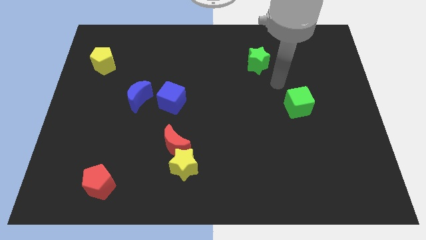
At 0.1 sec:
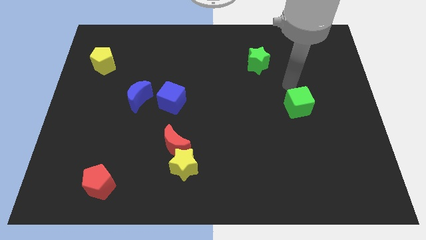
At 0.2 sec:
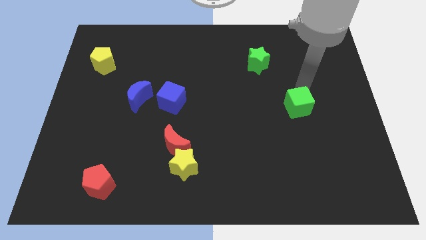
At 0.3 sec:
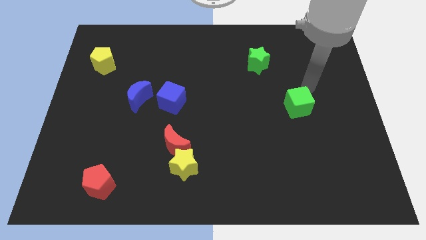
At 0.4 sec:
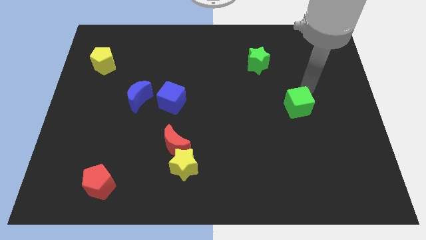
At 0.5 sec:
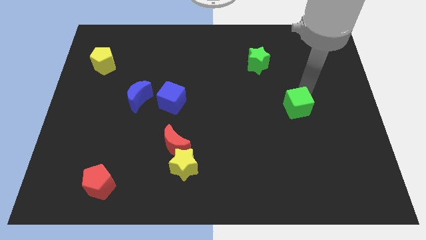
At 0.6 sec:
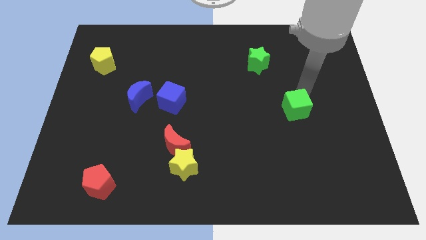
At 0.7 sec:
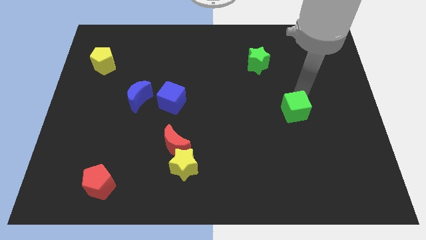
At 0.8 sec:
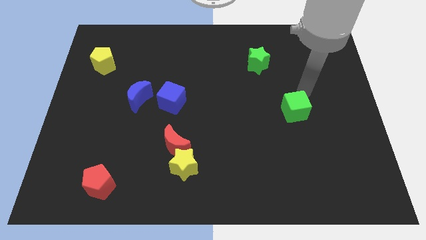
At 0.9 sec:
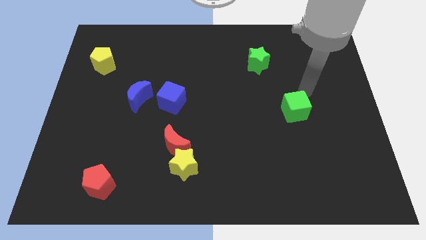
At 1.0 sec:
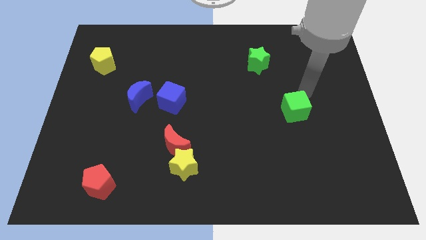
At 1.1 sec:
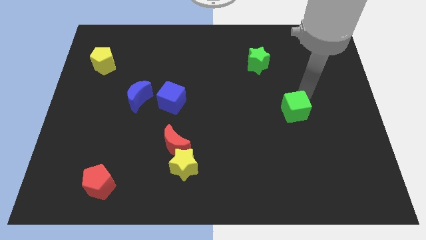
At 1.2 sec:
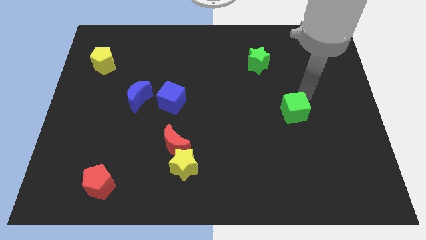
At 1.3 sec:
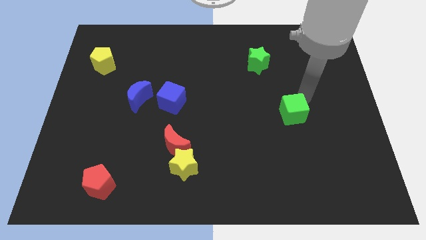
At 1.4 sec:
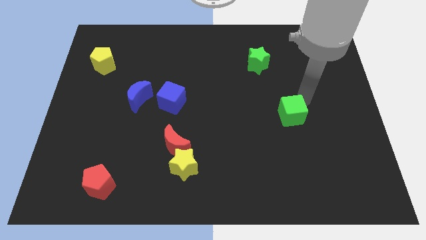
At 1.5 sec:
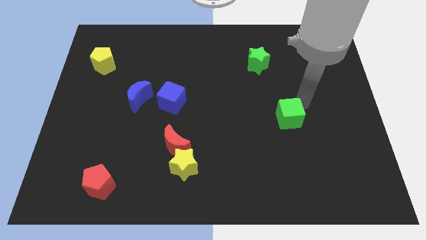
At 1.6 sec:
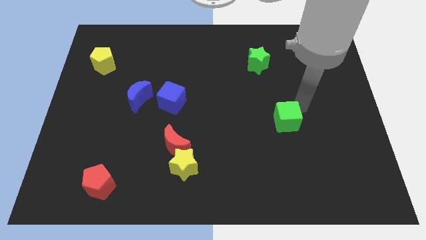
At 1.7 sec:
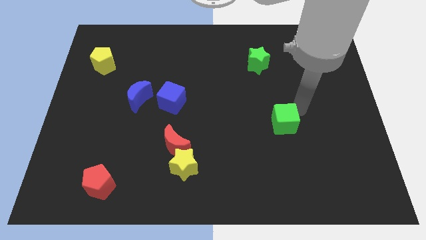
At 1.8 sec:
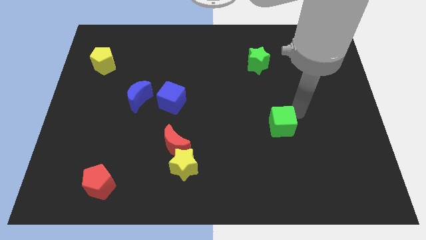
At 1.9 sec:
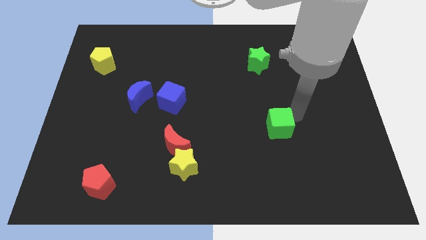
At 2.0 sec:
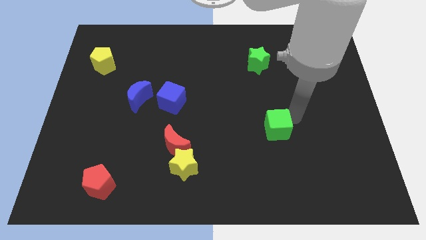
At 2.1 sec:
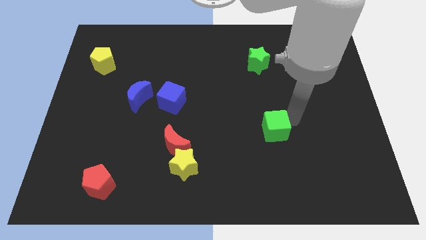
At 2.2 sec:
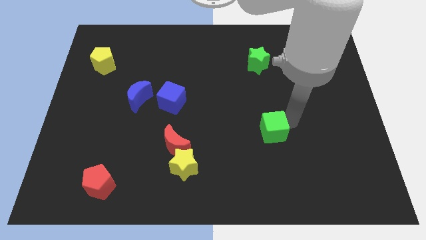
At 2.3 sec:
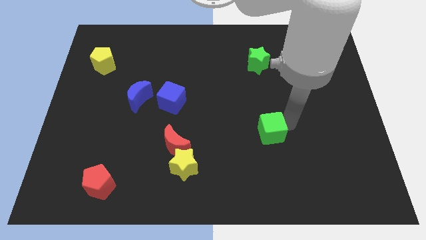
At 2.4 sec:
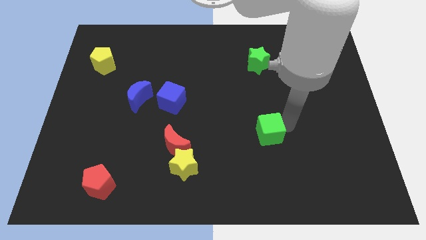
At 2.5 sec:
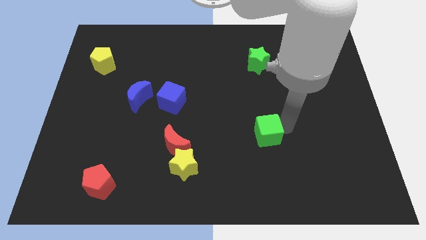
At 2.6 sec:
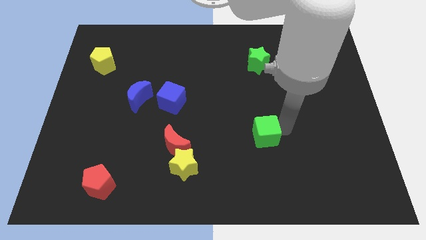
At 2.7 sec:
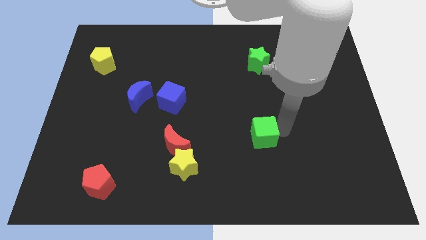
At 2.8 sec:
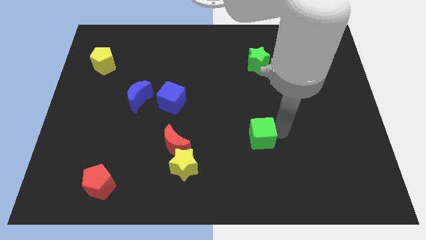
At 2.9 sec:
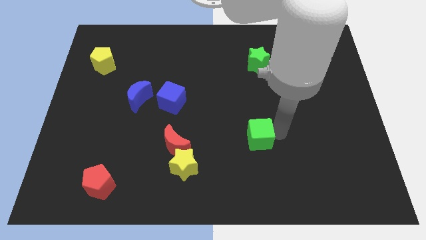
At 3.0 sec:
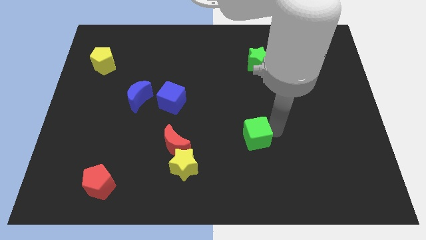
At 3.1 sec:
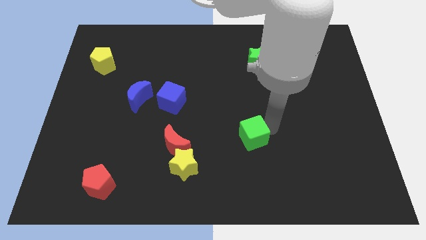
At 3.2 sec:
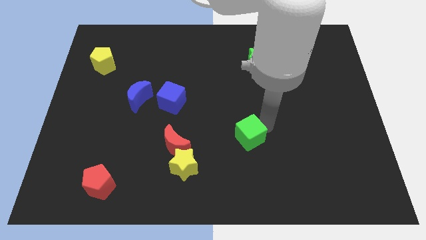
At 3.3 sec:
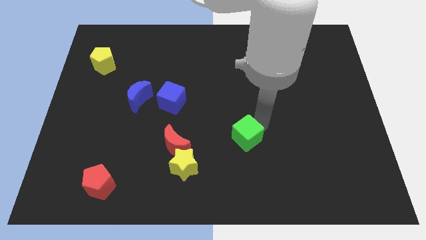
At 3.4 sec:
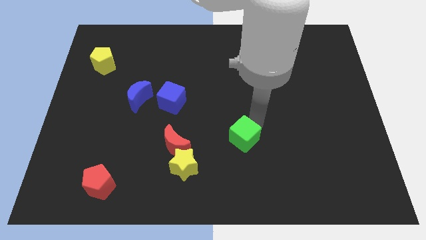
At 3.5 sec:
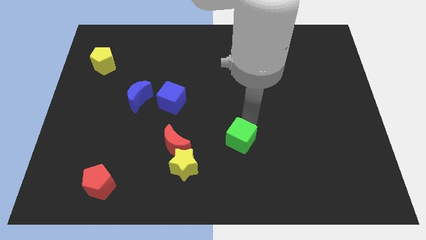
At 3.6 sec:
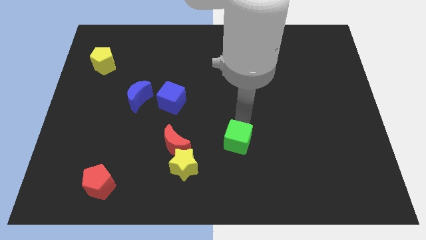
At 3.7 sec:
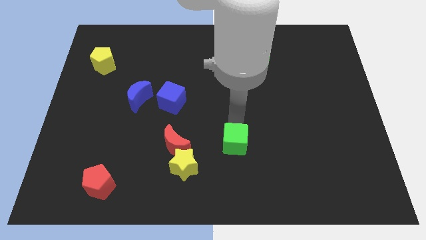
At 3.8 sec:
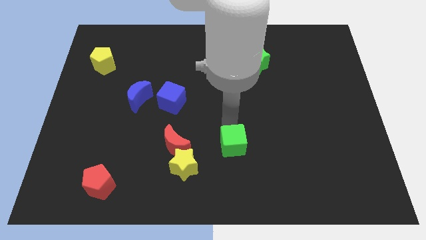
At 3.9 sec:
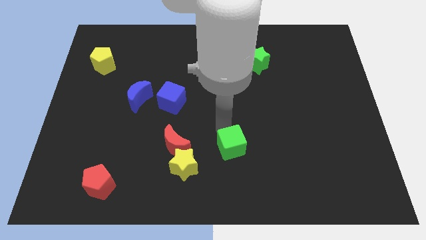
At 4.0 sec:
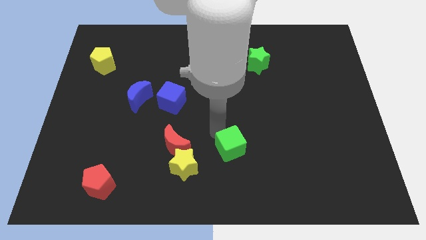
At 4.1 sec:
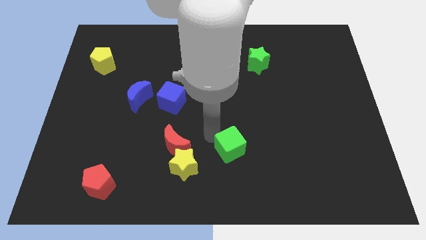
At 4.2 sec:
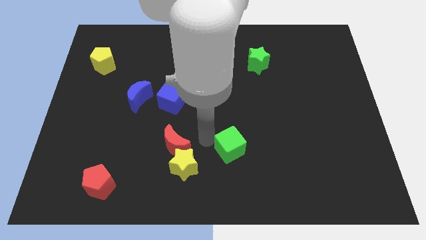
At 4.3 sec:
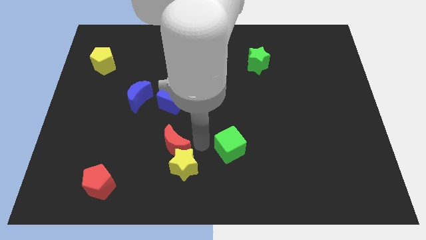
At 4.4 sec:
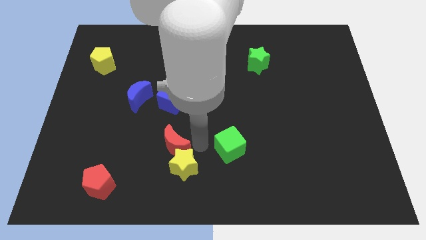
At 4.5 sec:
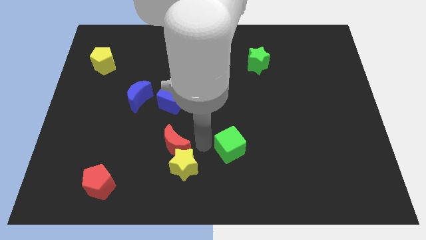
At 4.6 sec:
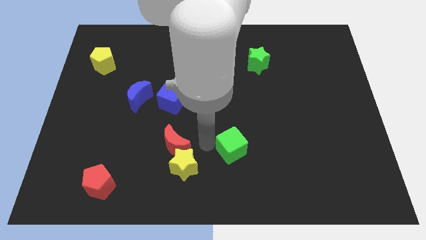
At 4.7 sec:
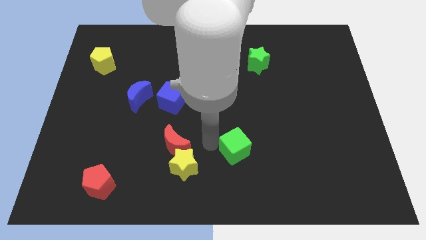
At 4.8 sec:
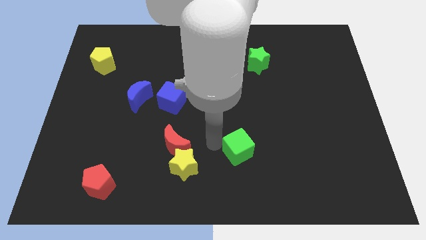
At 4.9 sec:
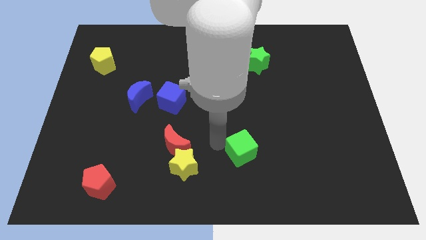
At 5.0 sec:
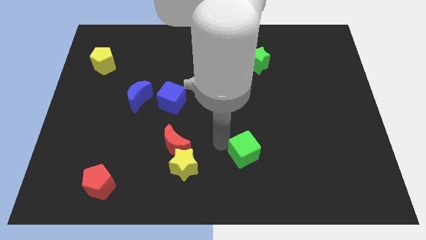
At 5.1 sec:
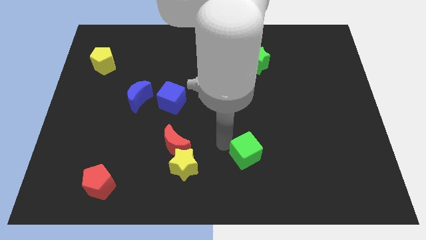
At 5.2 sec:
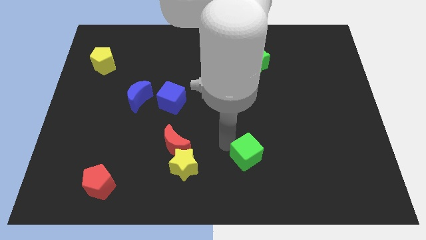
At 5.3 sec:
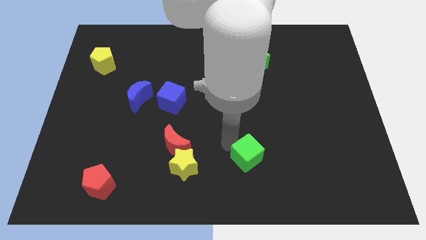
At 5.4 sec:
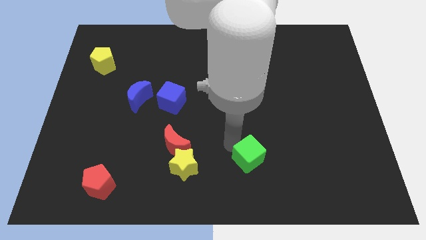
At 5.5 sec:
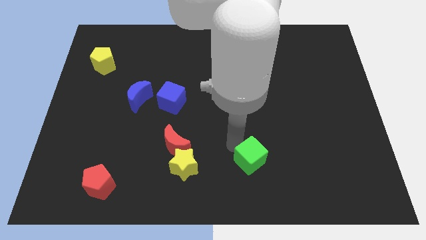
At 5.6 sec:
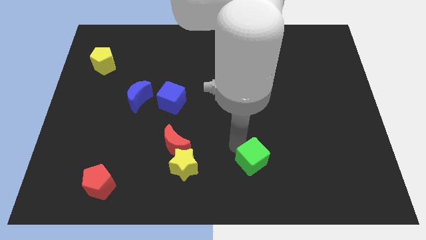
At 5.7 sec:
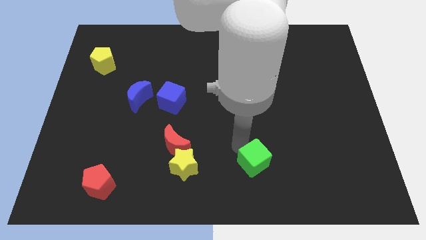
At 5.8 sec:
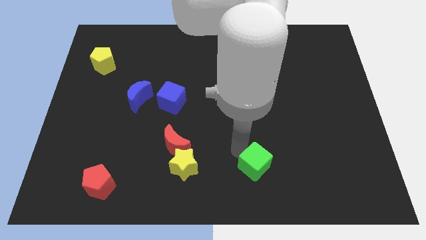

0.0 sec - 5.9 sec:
move the green cube to the bottom side
